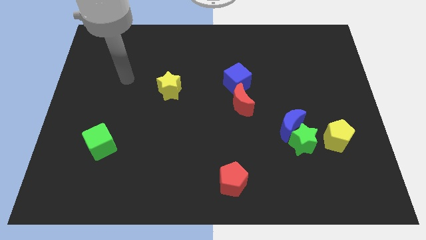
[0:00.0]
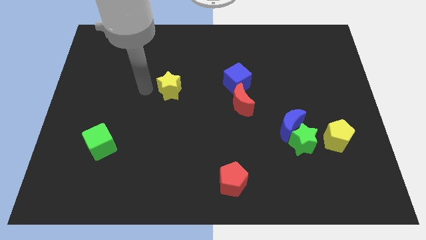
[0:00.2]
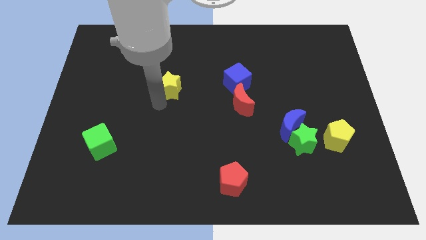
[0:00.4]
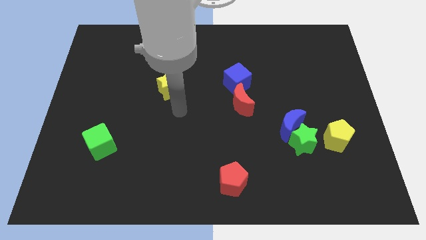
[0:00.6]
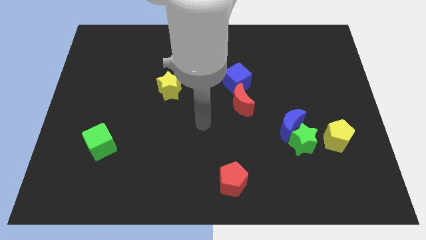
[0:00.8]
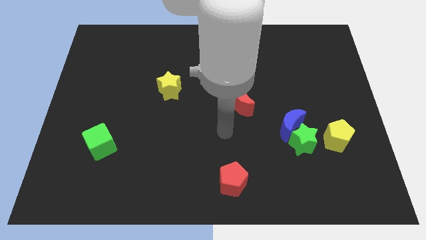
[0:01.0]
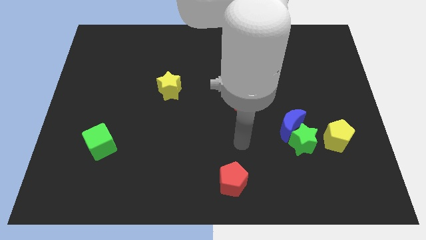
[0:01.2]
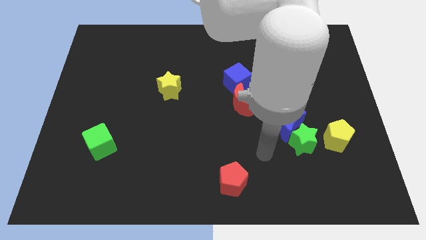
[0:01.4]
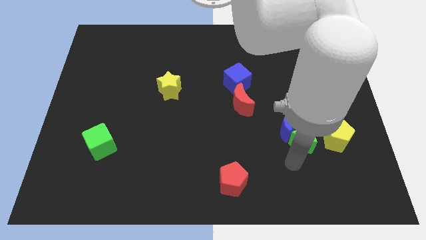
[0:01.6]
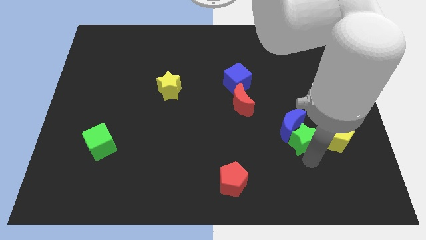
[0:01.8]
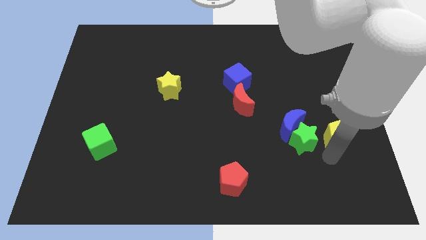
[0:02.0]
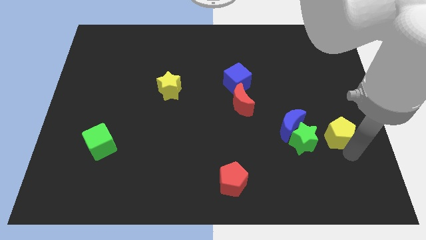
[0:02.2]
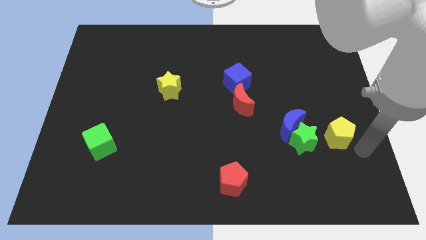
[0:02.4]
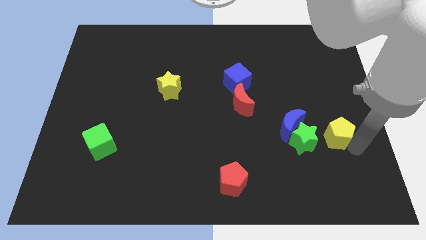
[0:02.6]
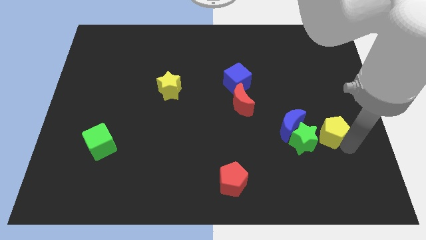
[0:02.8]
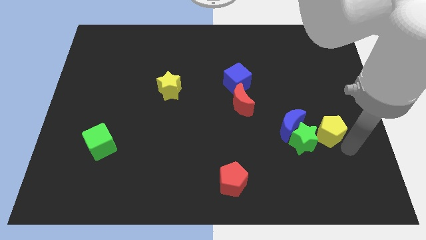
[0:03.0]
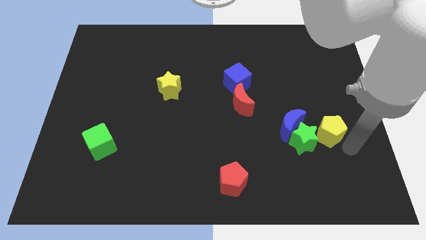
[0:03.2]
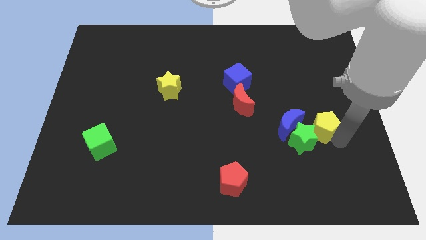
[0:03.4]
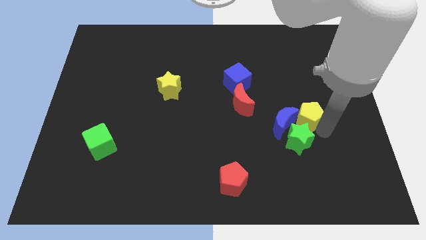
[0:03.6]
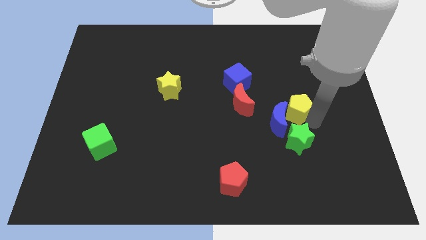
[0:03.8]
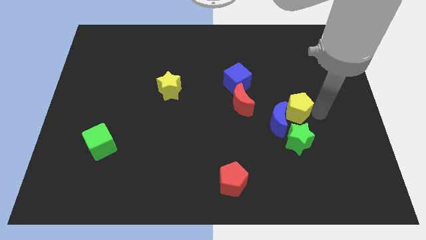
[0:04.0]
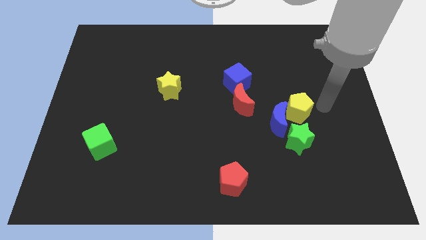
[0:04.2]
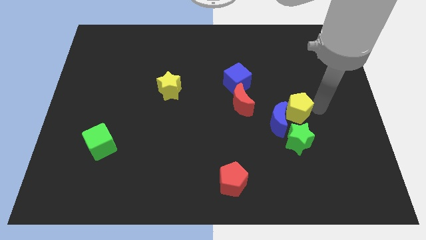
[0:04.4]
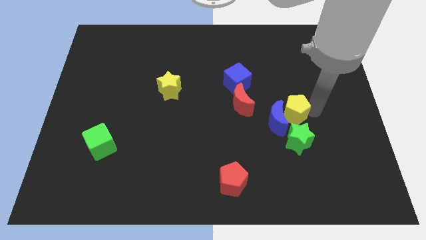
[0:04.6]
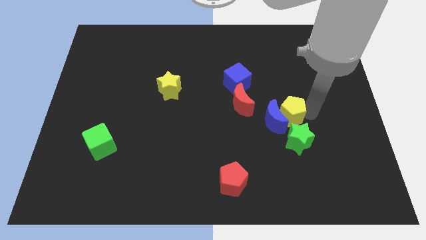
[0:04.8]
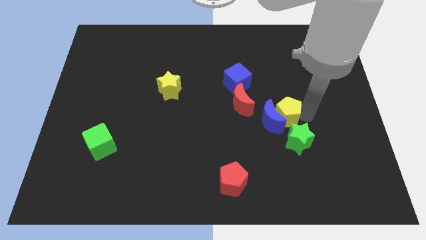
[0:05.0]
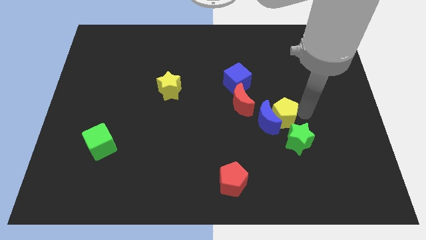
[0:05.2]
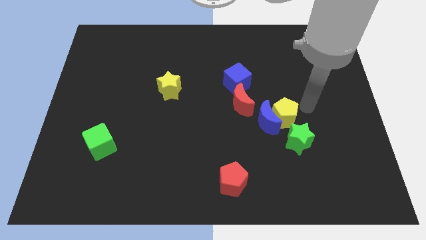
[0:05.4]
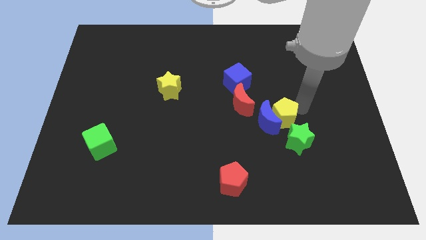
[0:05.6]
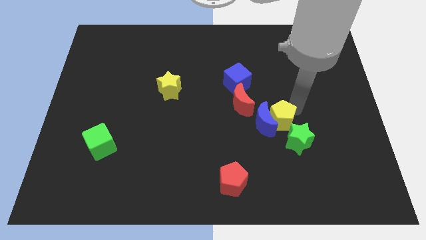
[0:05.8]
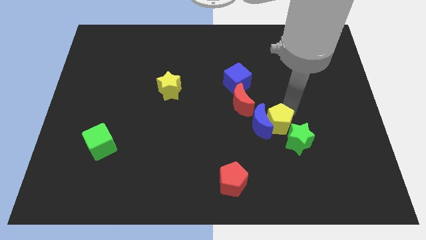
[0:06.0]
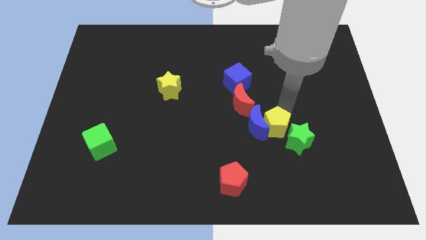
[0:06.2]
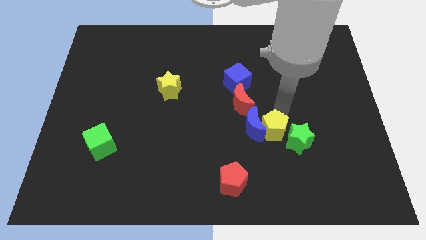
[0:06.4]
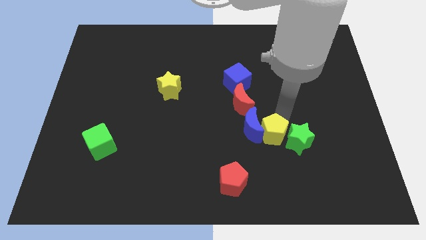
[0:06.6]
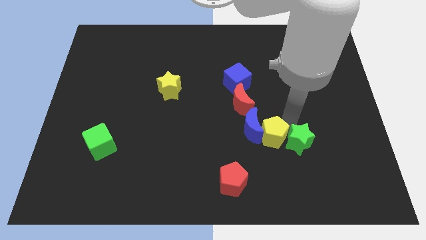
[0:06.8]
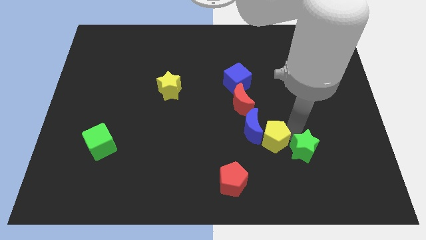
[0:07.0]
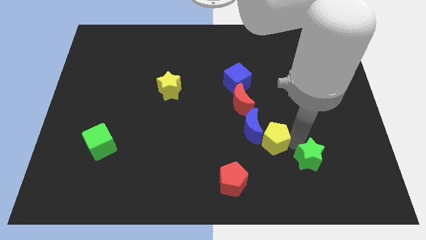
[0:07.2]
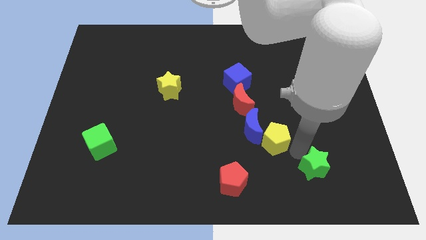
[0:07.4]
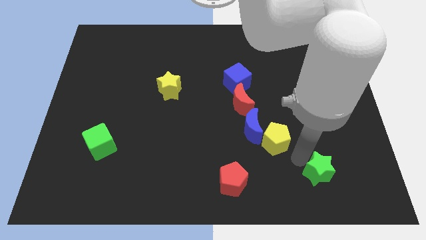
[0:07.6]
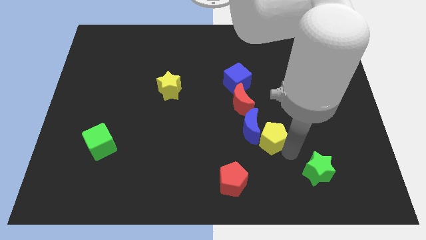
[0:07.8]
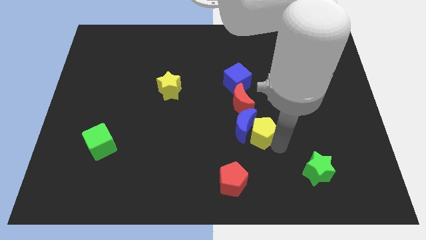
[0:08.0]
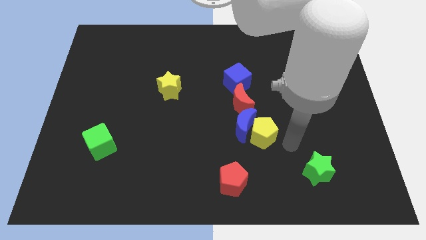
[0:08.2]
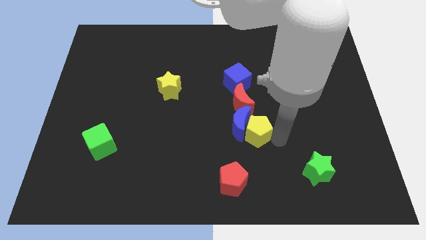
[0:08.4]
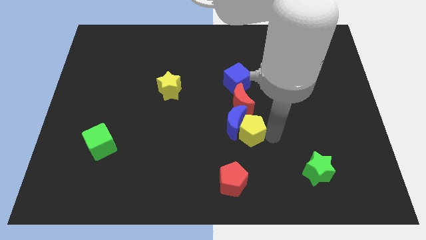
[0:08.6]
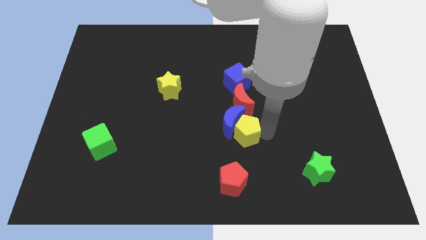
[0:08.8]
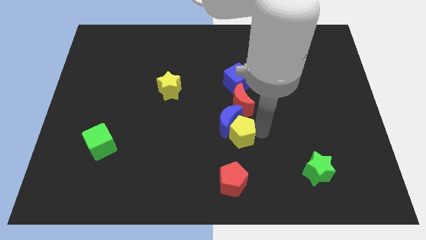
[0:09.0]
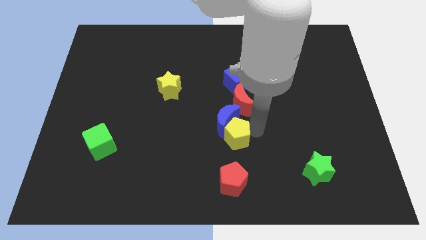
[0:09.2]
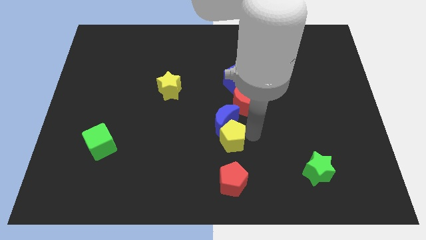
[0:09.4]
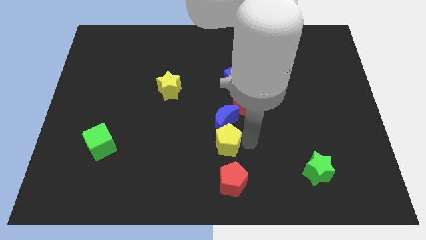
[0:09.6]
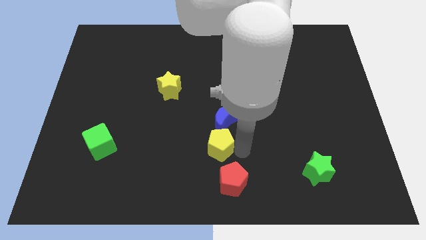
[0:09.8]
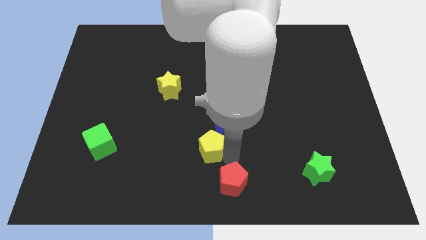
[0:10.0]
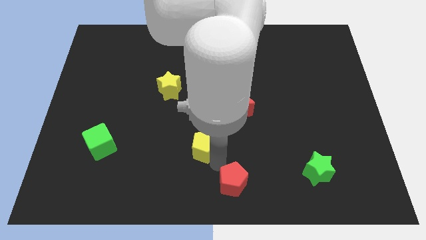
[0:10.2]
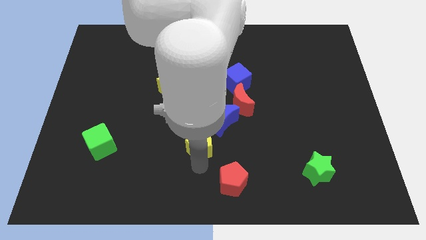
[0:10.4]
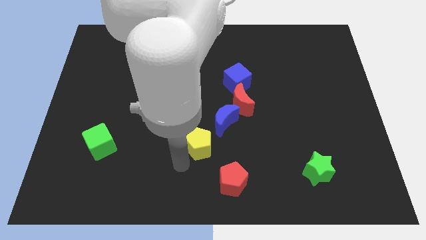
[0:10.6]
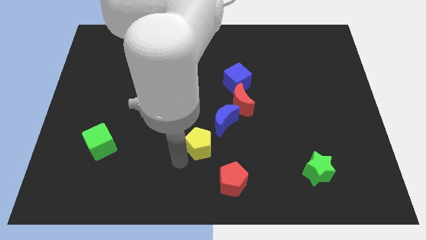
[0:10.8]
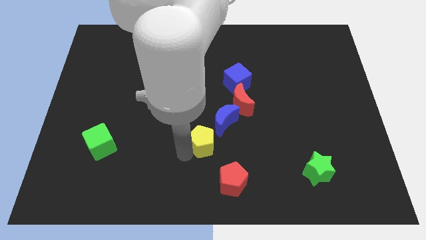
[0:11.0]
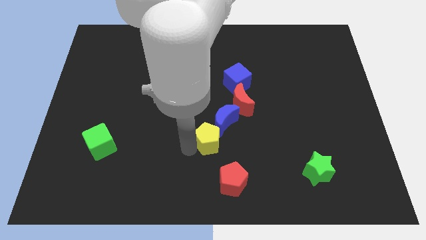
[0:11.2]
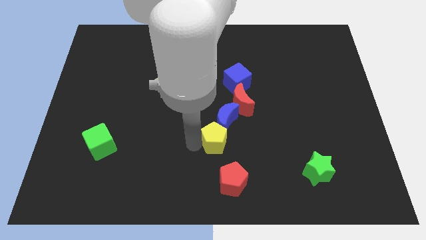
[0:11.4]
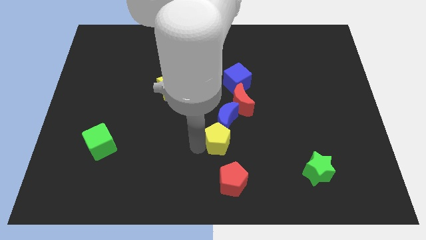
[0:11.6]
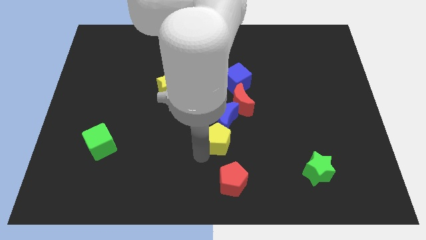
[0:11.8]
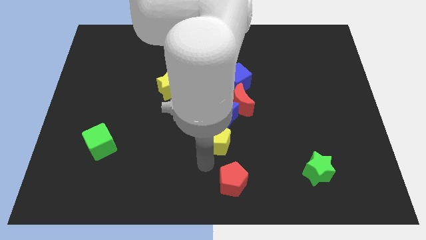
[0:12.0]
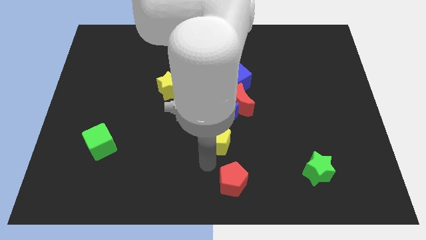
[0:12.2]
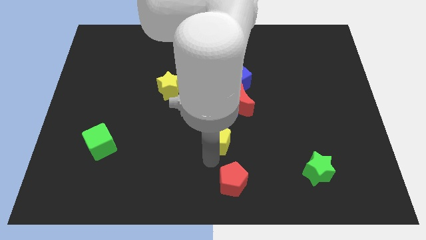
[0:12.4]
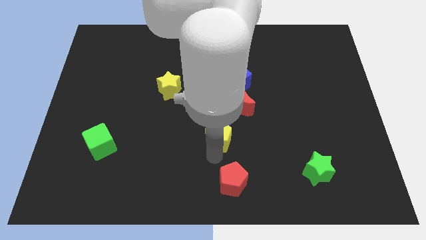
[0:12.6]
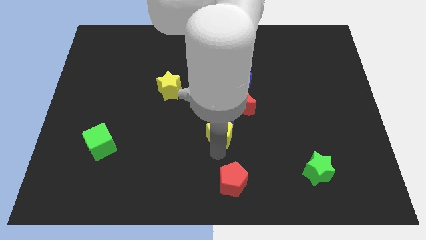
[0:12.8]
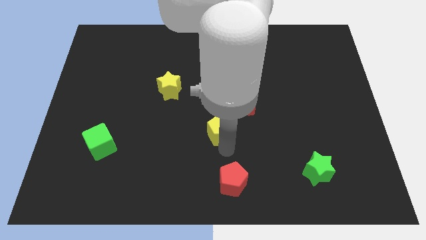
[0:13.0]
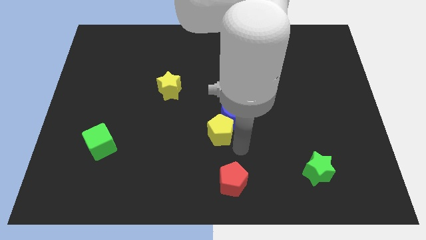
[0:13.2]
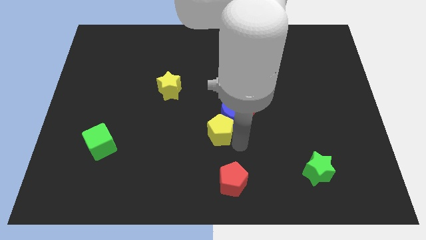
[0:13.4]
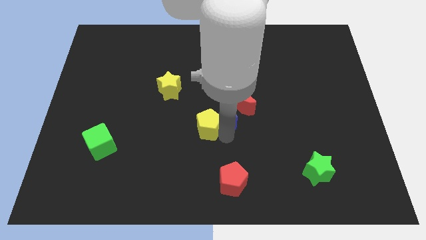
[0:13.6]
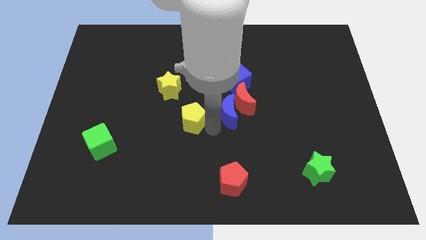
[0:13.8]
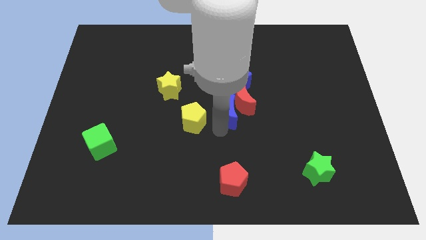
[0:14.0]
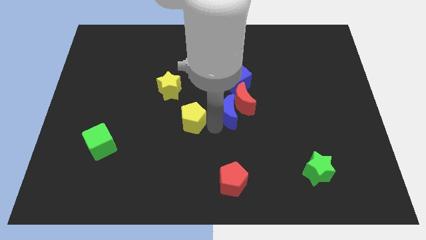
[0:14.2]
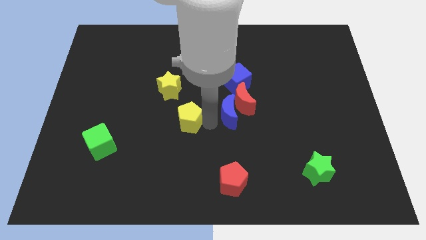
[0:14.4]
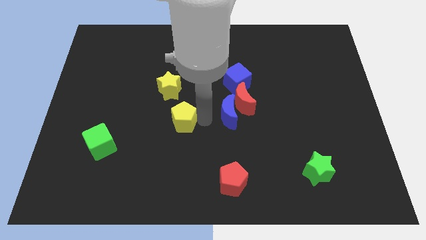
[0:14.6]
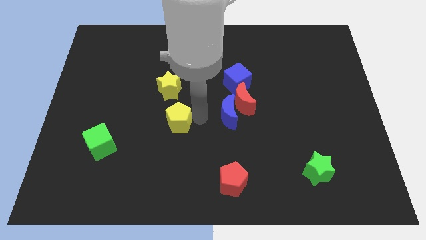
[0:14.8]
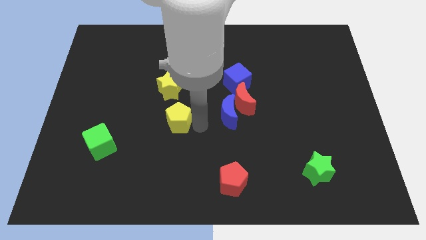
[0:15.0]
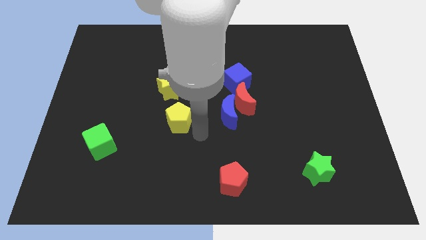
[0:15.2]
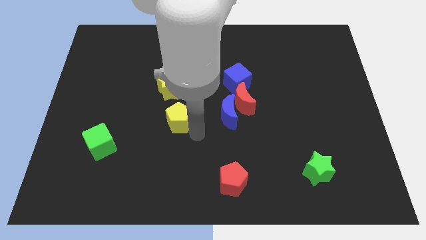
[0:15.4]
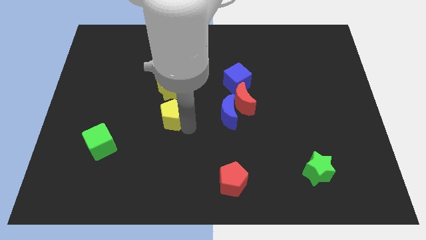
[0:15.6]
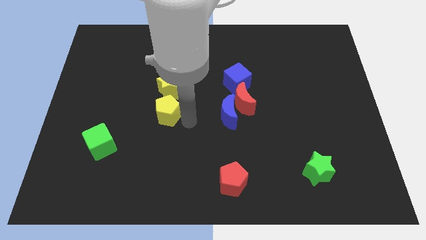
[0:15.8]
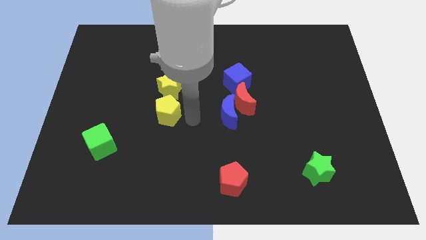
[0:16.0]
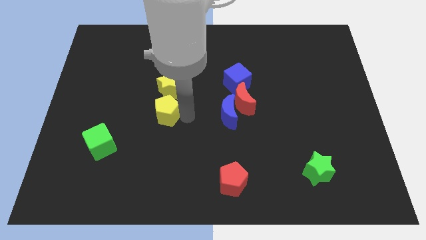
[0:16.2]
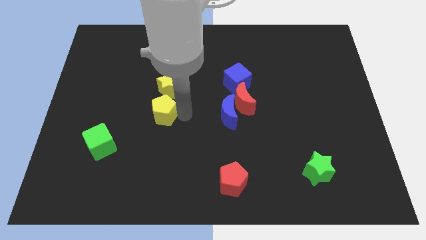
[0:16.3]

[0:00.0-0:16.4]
slide the yellow pentagon to the bottom left side of the yellow star
